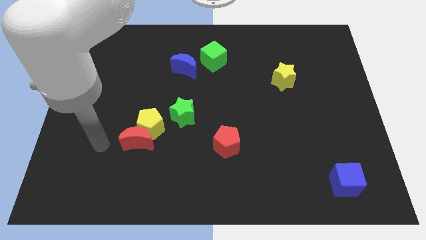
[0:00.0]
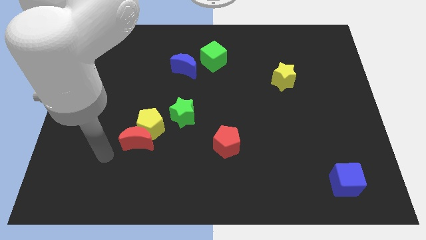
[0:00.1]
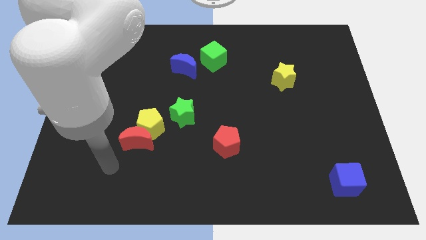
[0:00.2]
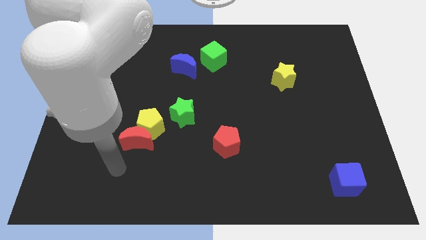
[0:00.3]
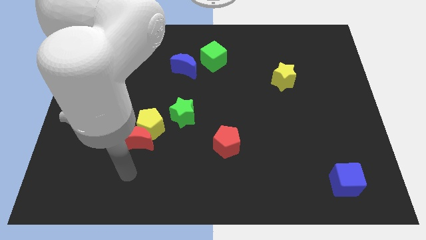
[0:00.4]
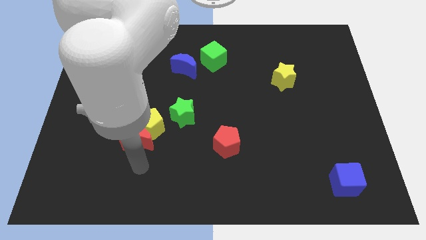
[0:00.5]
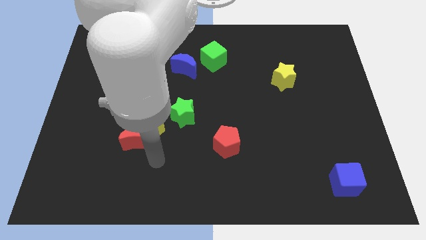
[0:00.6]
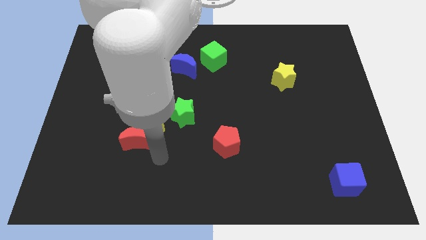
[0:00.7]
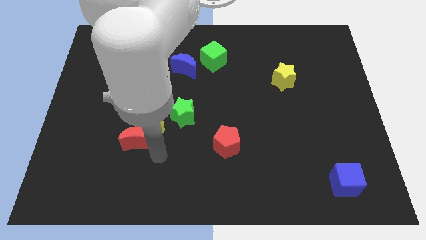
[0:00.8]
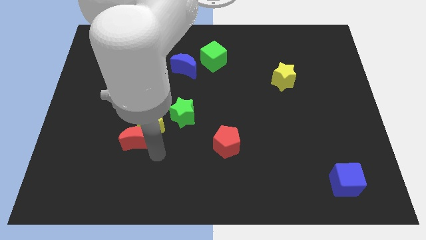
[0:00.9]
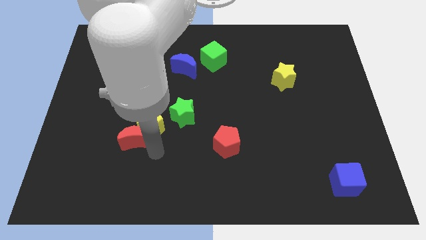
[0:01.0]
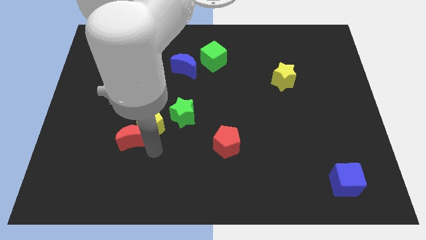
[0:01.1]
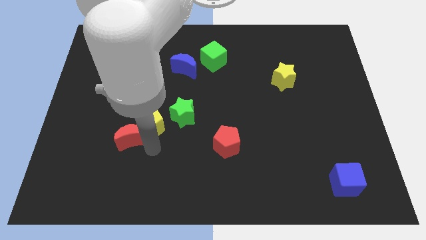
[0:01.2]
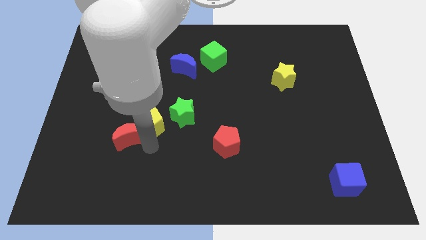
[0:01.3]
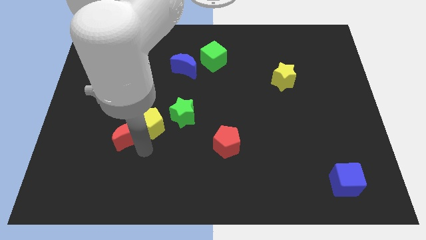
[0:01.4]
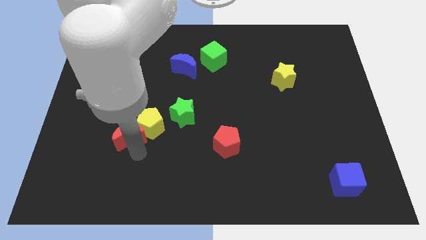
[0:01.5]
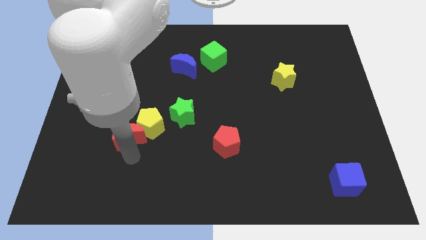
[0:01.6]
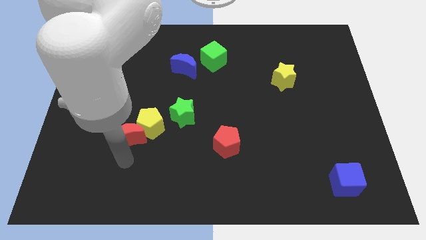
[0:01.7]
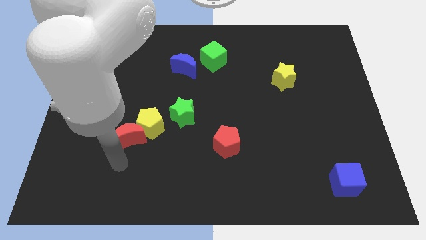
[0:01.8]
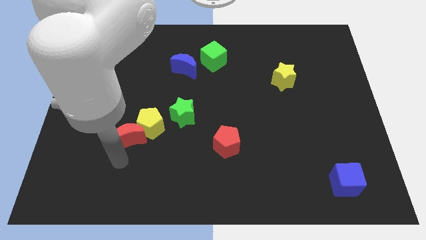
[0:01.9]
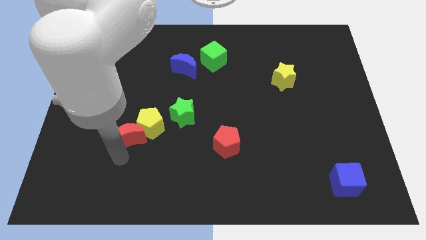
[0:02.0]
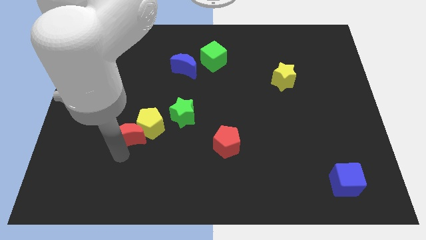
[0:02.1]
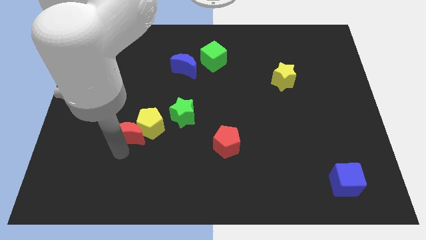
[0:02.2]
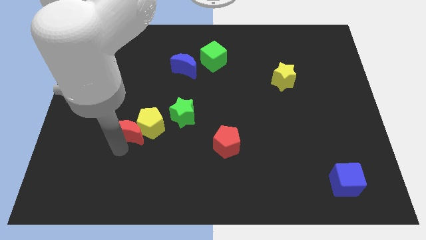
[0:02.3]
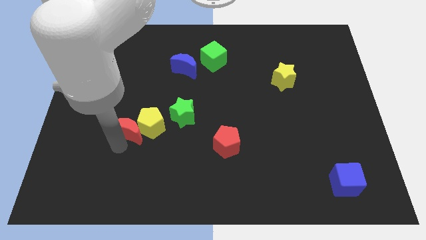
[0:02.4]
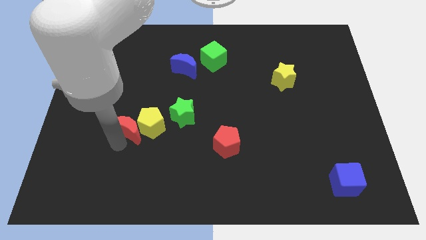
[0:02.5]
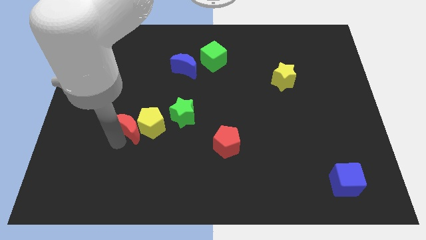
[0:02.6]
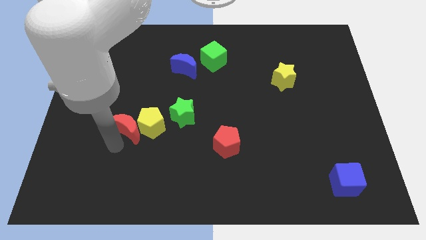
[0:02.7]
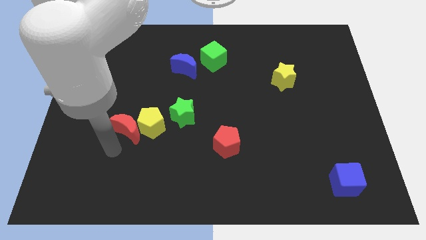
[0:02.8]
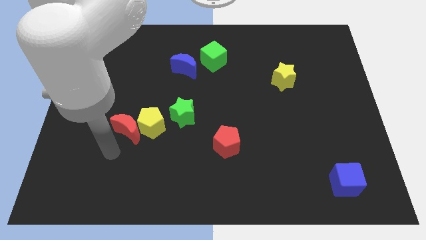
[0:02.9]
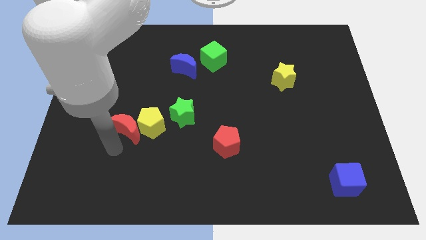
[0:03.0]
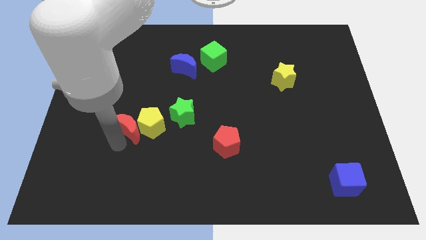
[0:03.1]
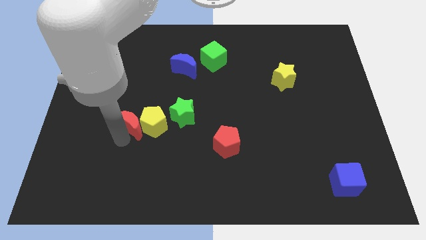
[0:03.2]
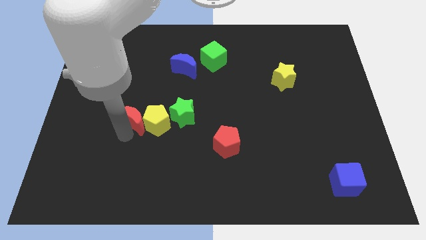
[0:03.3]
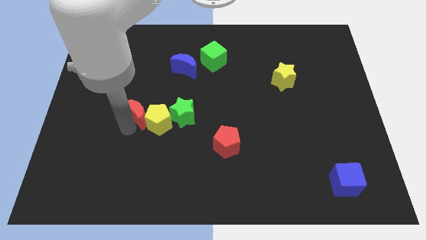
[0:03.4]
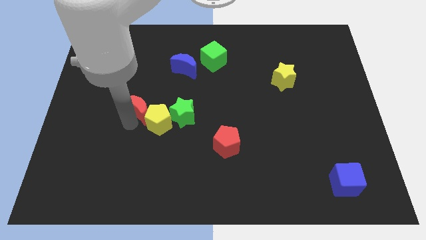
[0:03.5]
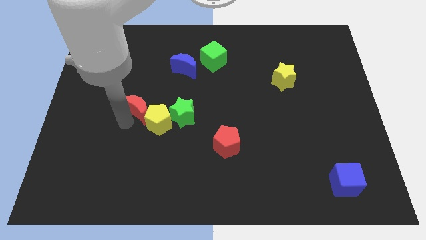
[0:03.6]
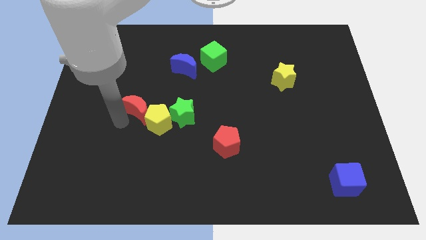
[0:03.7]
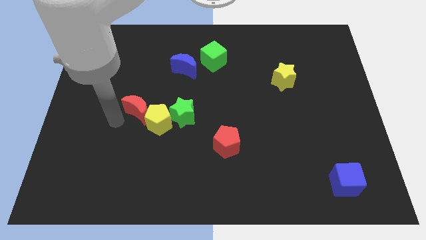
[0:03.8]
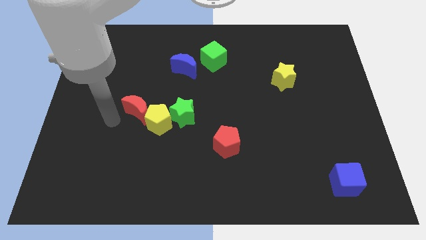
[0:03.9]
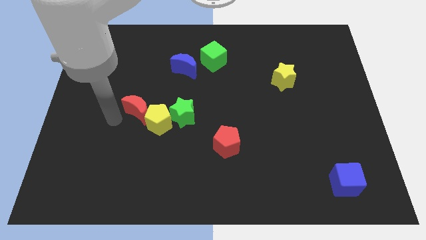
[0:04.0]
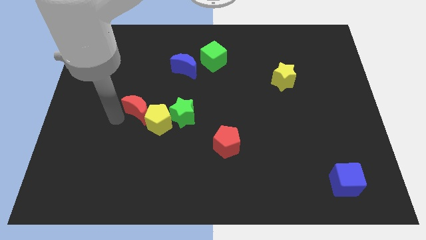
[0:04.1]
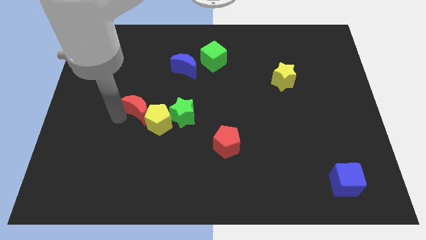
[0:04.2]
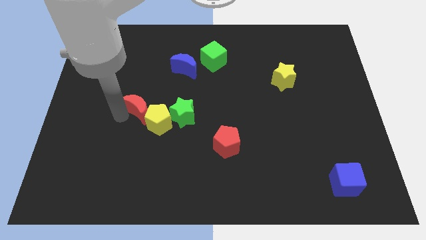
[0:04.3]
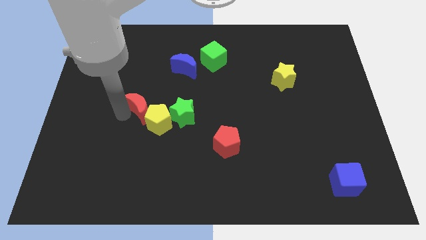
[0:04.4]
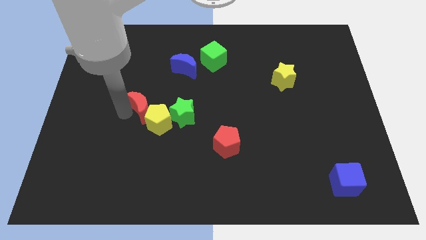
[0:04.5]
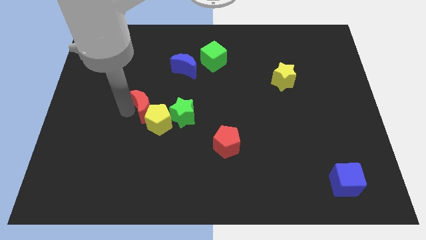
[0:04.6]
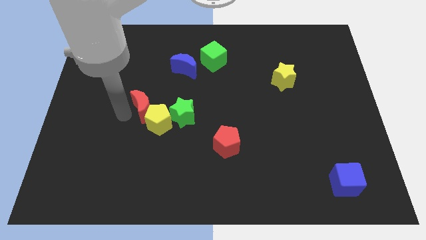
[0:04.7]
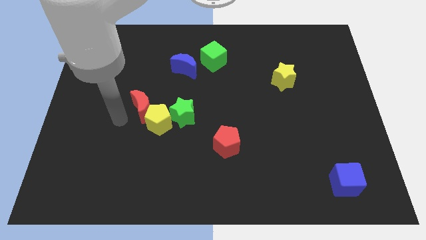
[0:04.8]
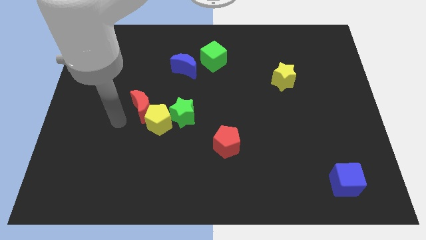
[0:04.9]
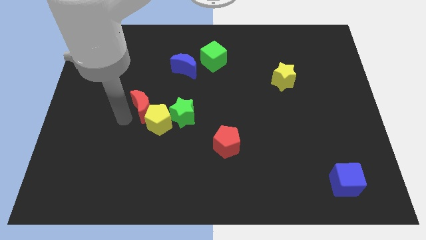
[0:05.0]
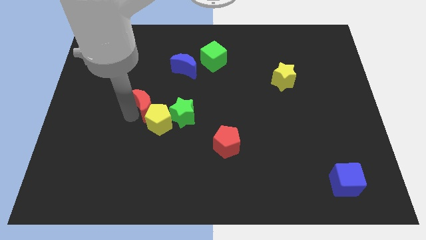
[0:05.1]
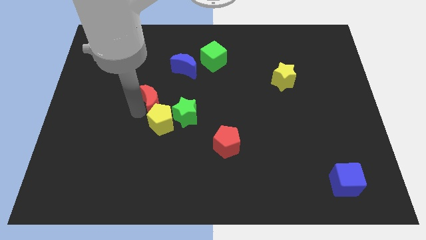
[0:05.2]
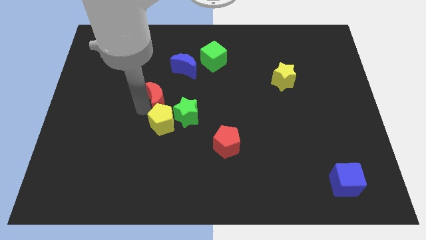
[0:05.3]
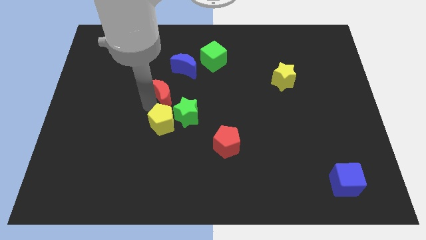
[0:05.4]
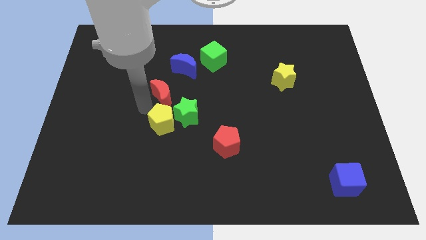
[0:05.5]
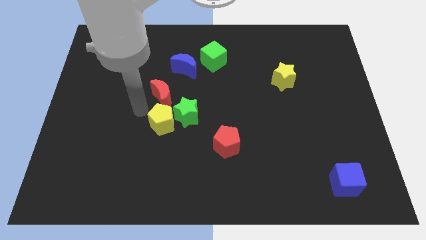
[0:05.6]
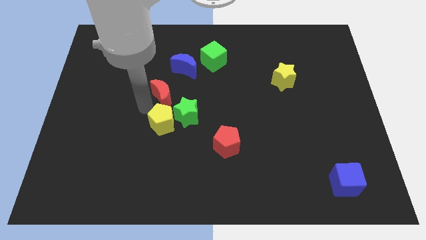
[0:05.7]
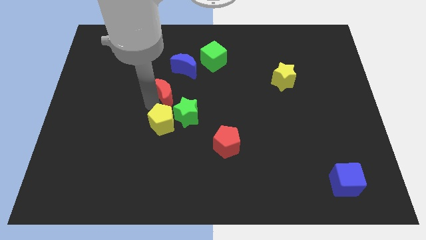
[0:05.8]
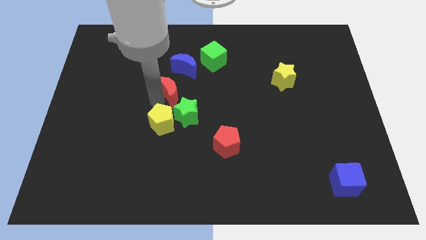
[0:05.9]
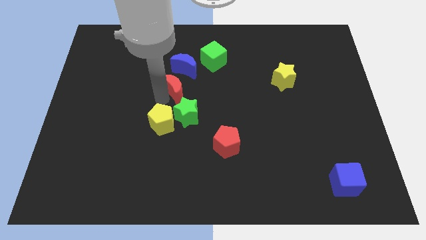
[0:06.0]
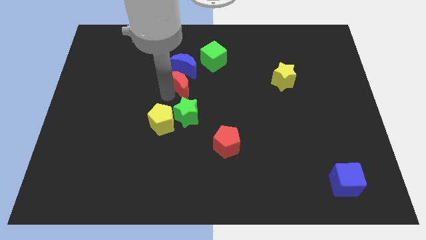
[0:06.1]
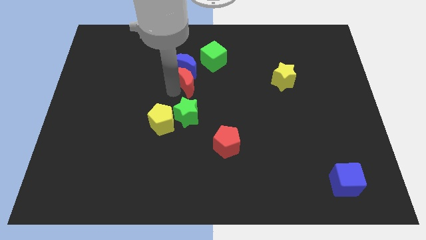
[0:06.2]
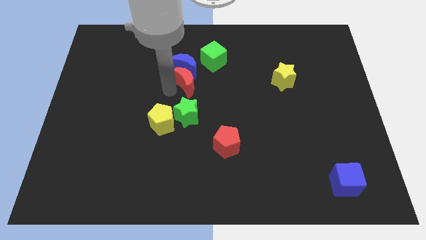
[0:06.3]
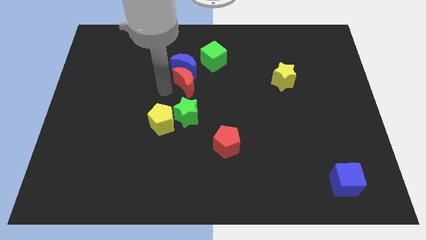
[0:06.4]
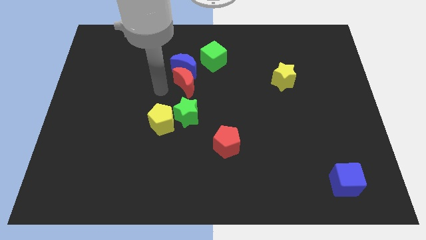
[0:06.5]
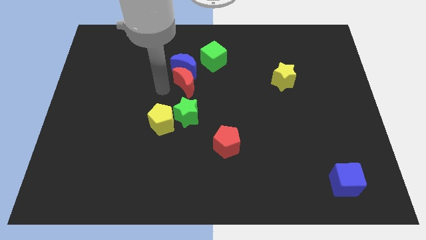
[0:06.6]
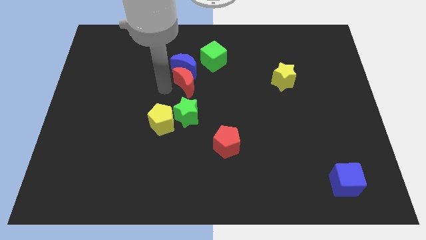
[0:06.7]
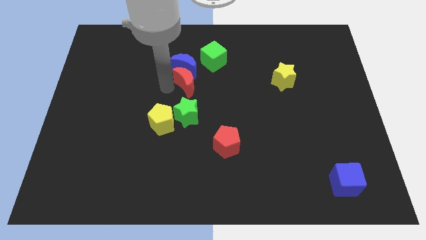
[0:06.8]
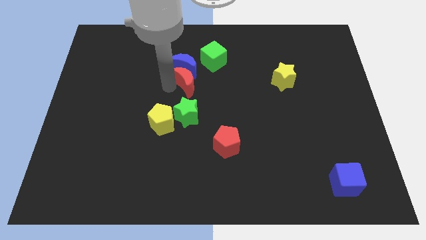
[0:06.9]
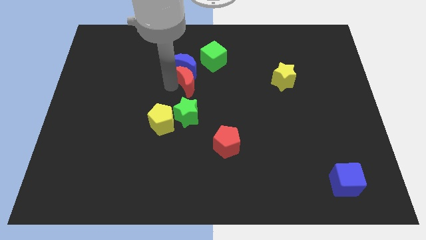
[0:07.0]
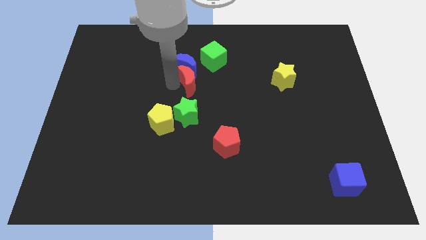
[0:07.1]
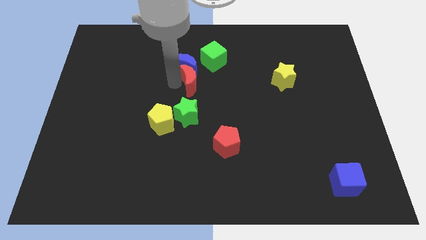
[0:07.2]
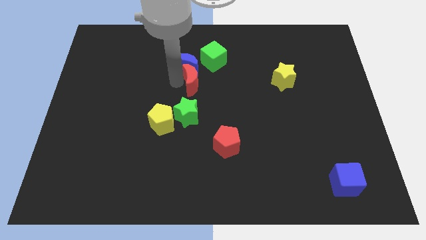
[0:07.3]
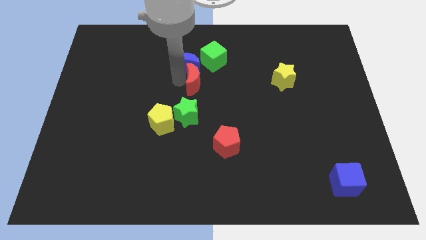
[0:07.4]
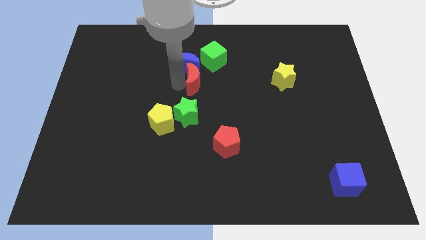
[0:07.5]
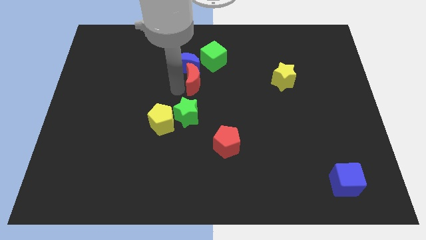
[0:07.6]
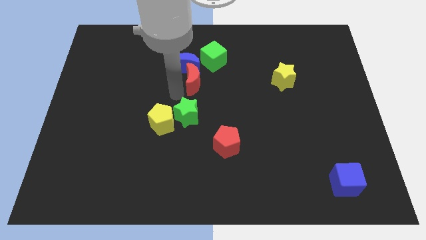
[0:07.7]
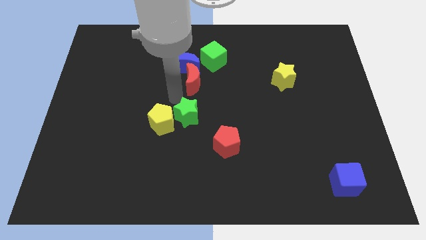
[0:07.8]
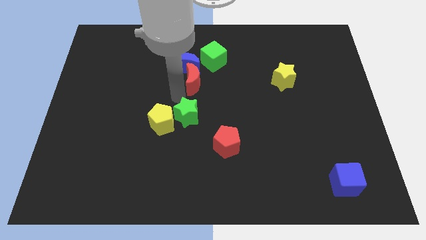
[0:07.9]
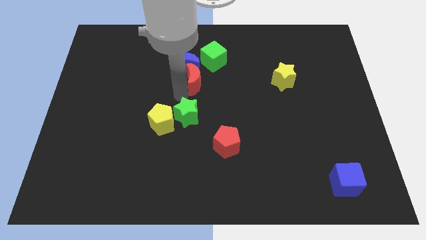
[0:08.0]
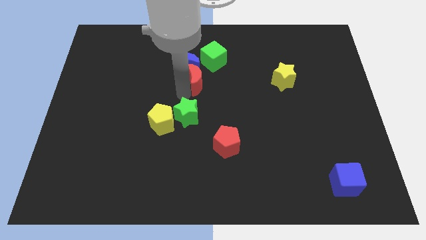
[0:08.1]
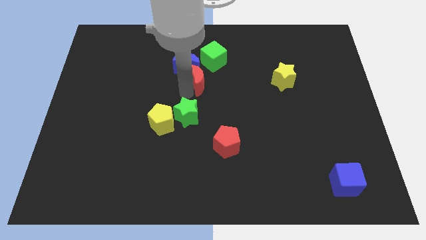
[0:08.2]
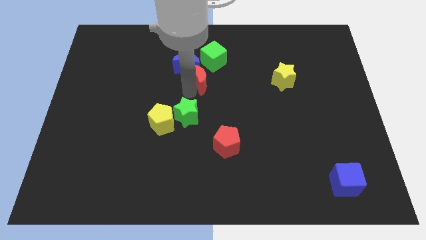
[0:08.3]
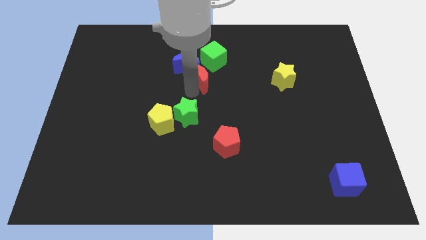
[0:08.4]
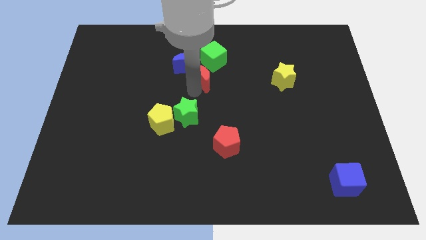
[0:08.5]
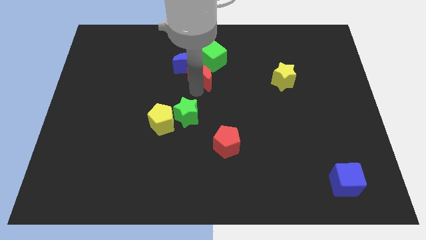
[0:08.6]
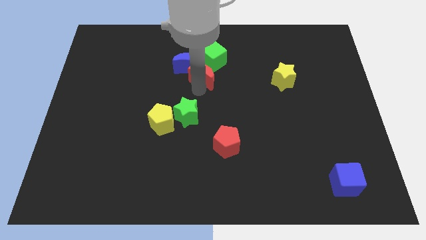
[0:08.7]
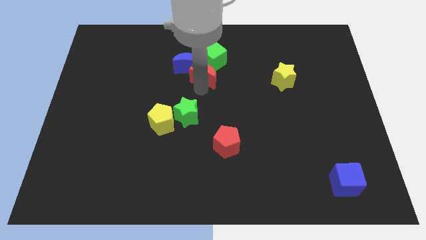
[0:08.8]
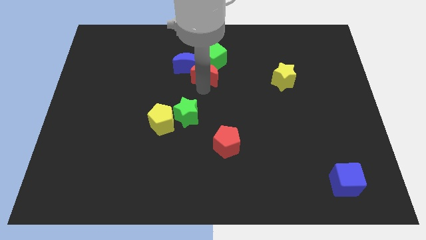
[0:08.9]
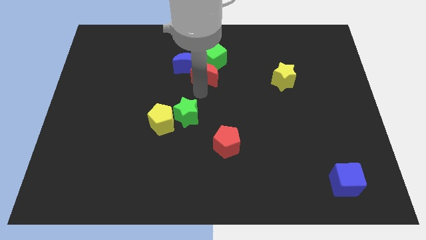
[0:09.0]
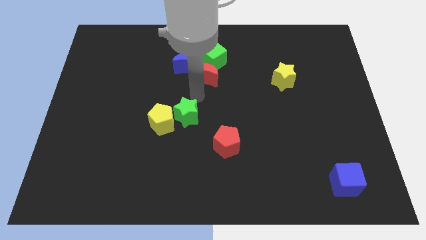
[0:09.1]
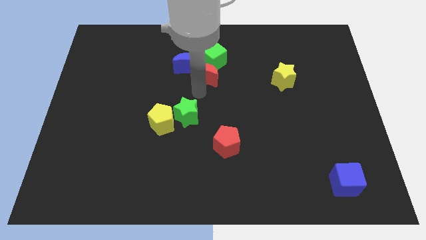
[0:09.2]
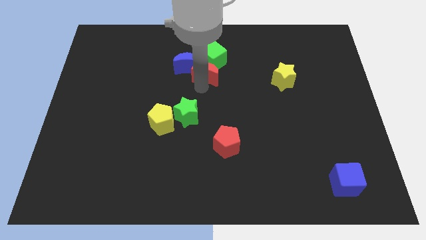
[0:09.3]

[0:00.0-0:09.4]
move the red moon towards the green cube
